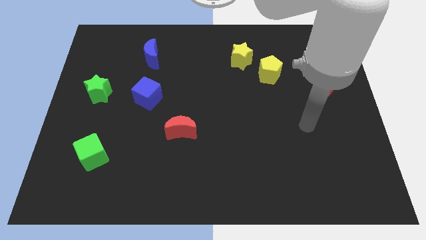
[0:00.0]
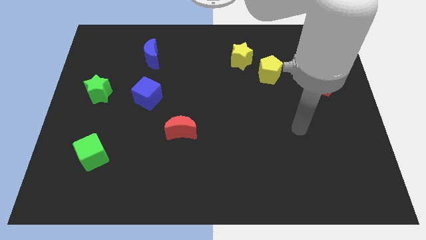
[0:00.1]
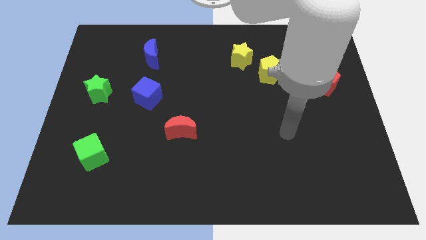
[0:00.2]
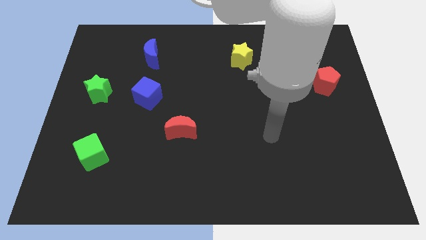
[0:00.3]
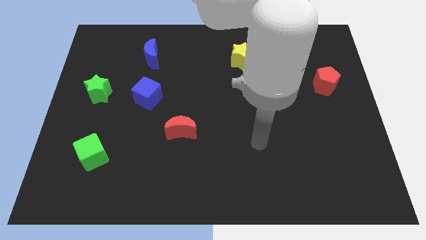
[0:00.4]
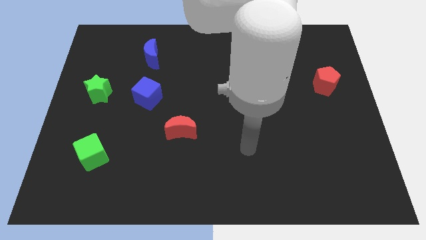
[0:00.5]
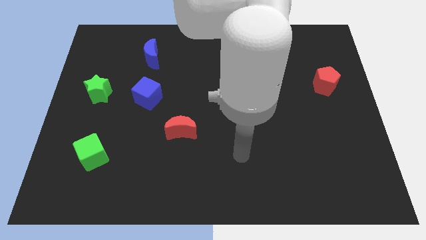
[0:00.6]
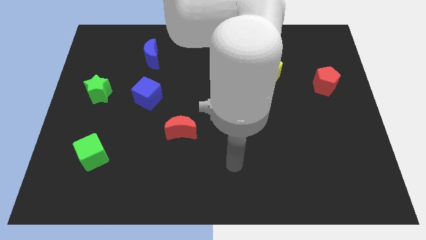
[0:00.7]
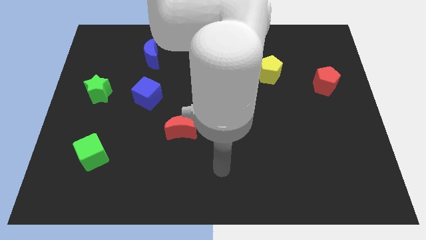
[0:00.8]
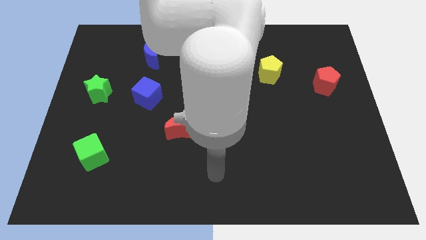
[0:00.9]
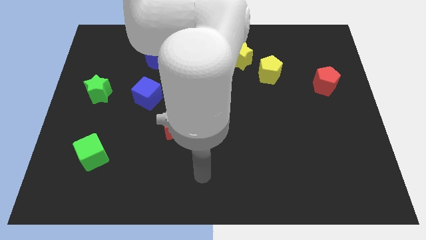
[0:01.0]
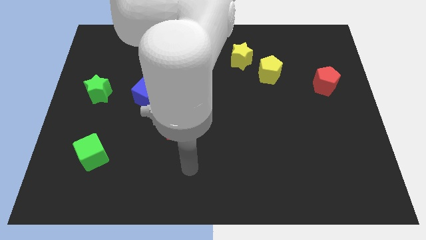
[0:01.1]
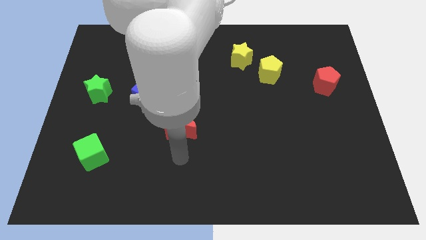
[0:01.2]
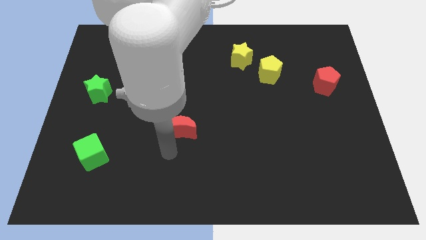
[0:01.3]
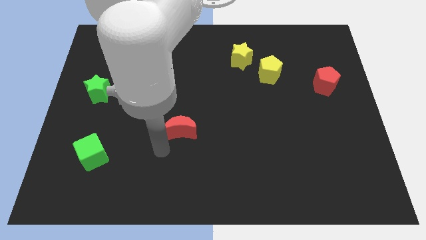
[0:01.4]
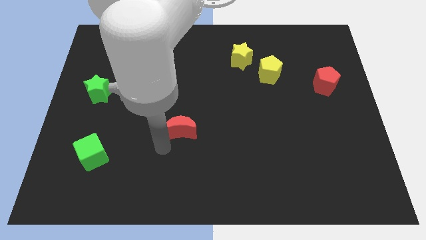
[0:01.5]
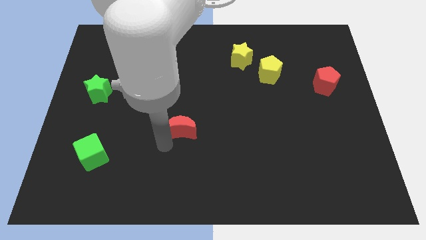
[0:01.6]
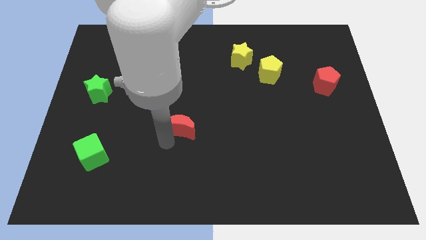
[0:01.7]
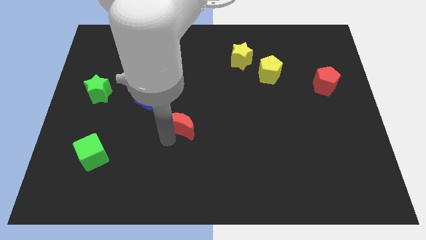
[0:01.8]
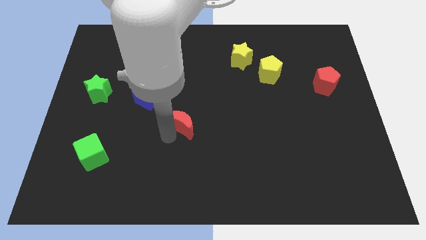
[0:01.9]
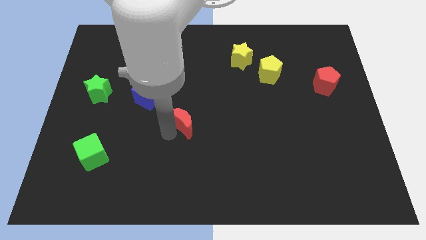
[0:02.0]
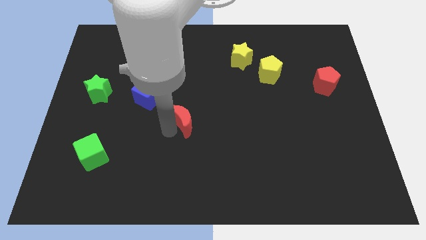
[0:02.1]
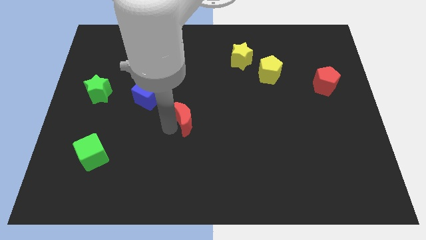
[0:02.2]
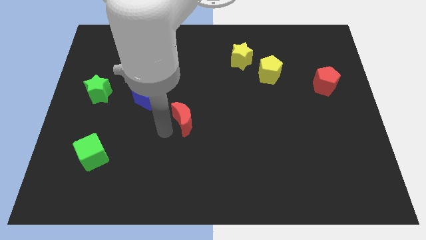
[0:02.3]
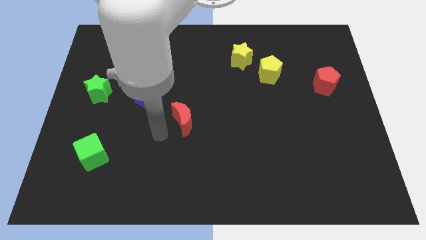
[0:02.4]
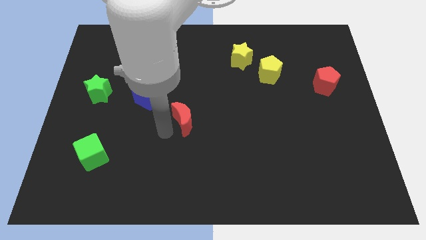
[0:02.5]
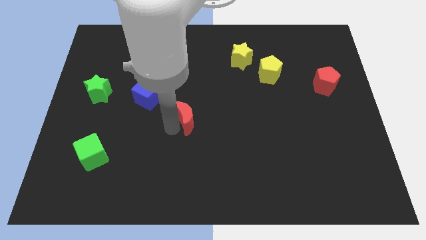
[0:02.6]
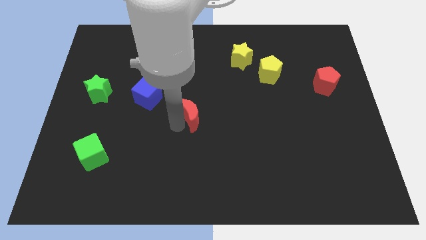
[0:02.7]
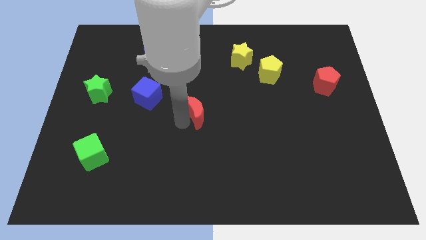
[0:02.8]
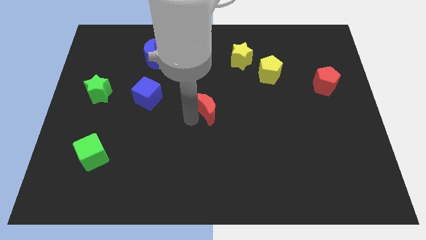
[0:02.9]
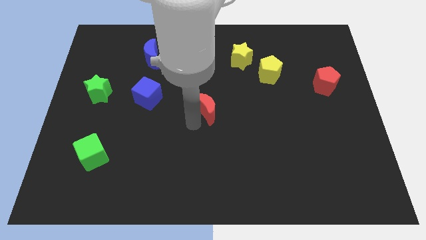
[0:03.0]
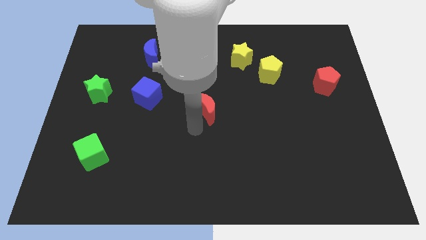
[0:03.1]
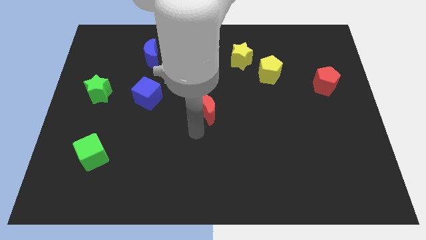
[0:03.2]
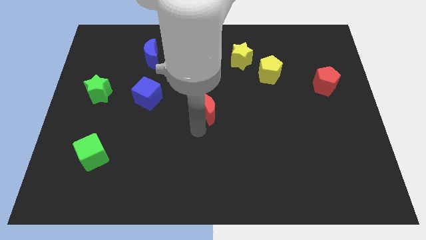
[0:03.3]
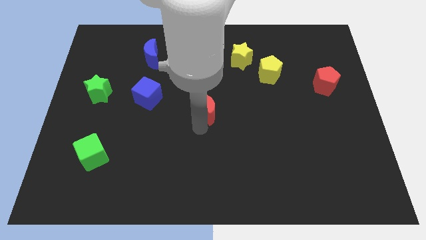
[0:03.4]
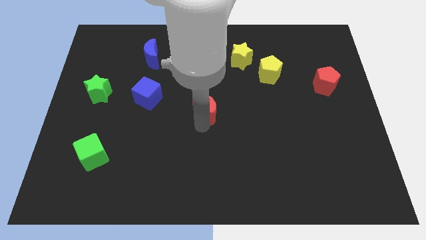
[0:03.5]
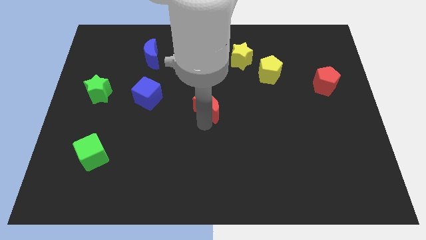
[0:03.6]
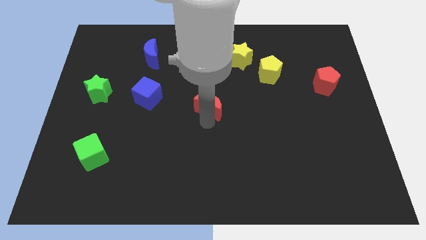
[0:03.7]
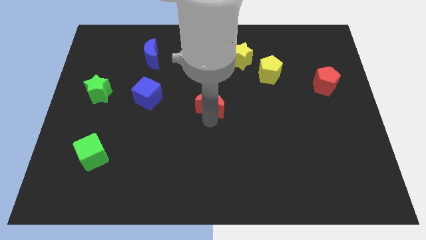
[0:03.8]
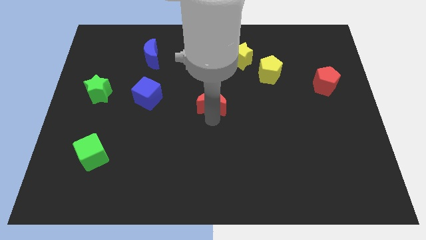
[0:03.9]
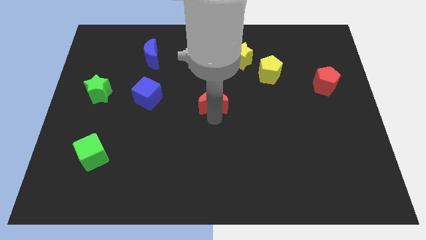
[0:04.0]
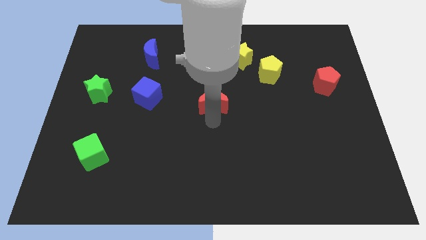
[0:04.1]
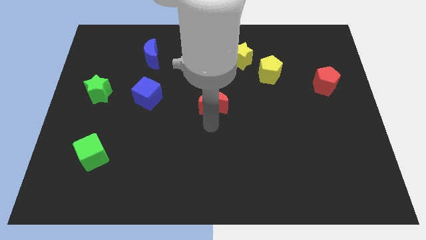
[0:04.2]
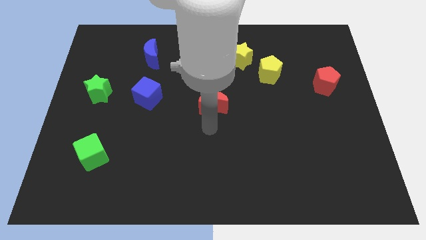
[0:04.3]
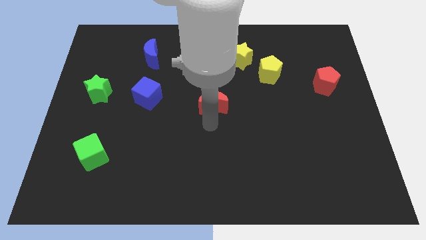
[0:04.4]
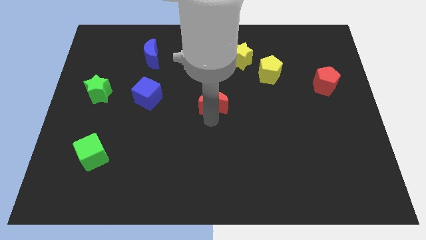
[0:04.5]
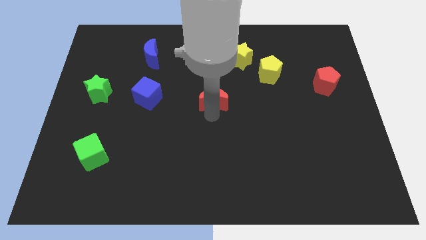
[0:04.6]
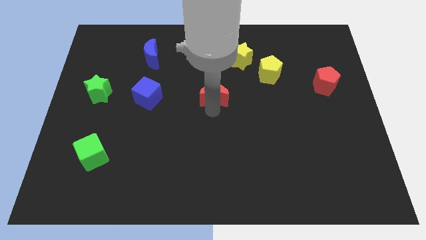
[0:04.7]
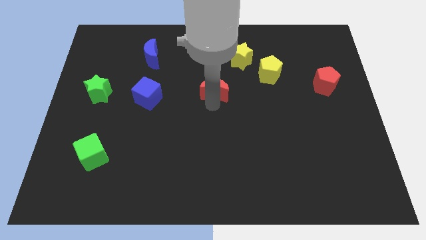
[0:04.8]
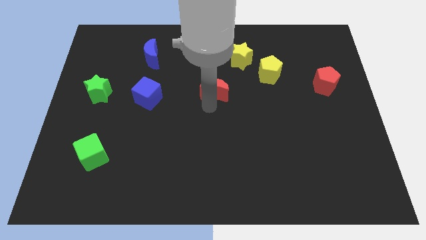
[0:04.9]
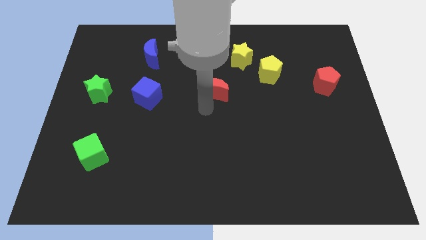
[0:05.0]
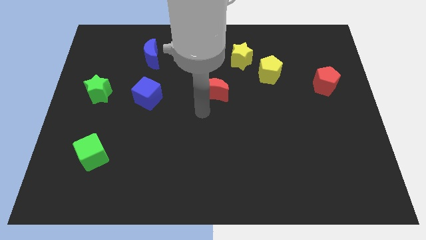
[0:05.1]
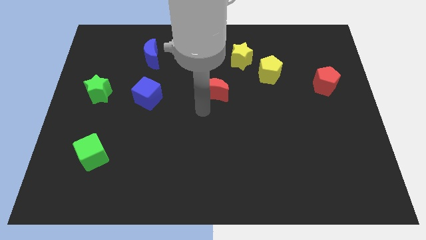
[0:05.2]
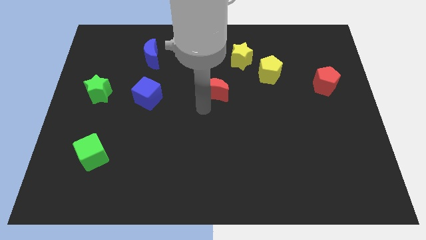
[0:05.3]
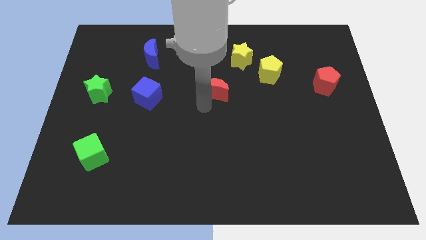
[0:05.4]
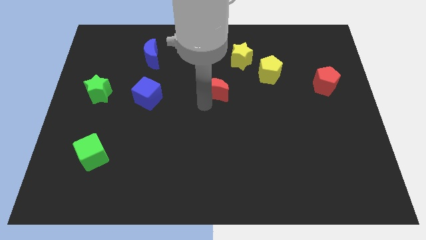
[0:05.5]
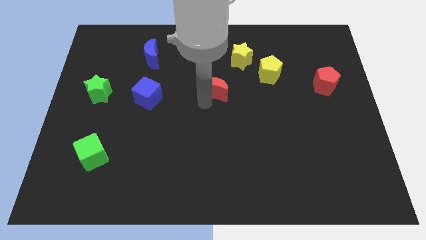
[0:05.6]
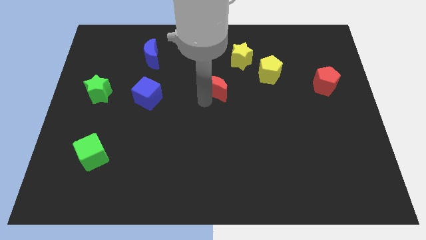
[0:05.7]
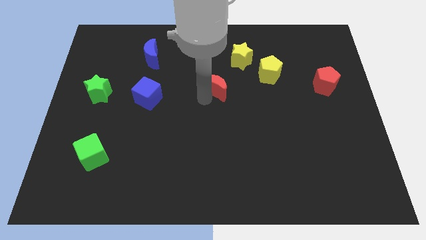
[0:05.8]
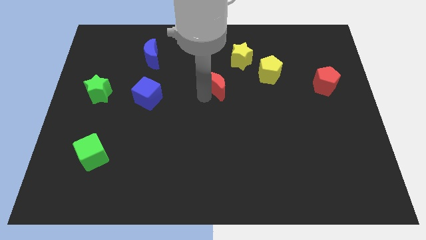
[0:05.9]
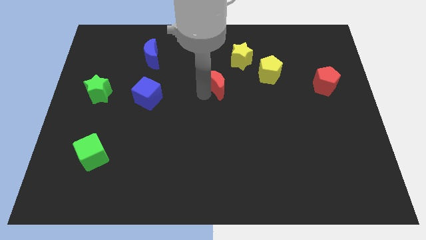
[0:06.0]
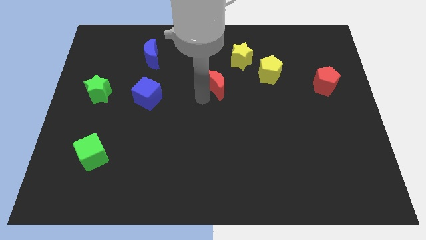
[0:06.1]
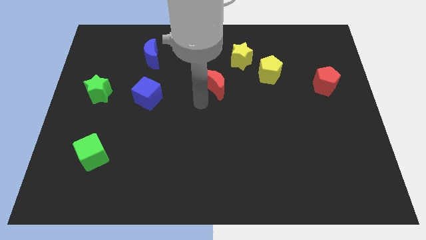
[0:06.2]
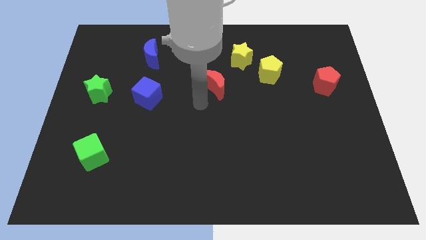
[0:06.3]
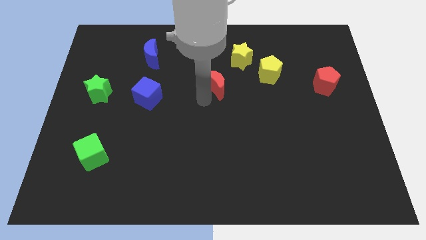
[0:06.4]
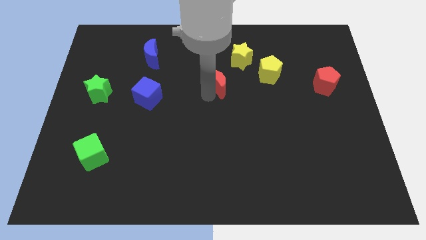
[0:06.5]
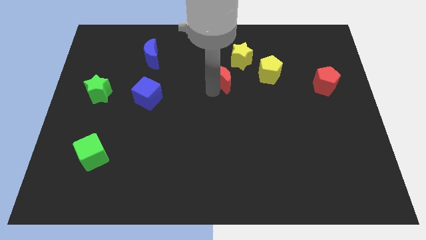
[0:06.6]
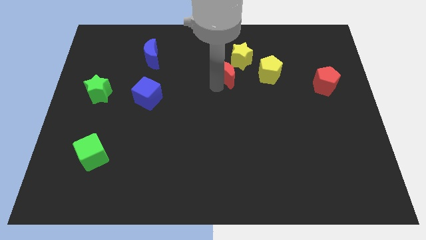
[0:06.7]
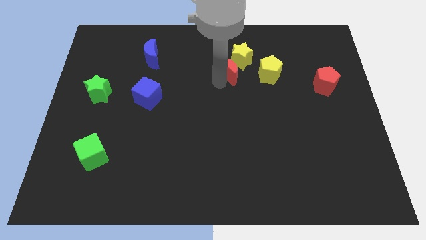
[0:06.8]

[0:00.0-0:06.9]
slide the red moon to the yellow star

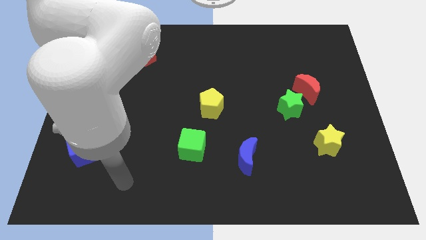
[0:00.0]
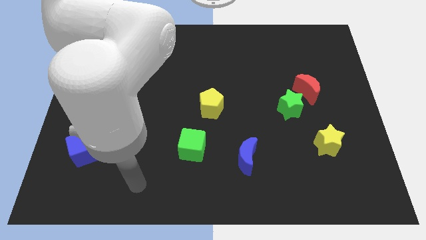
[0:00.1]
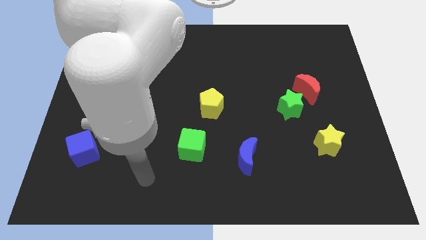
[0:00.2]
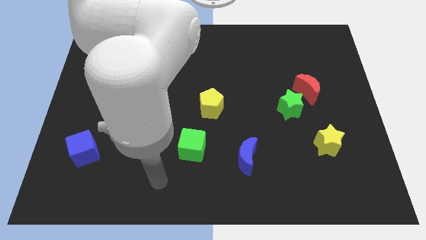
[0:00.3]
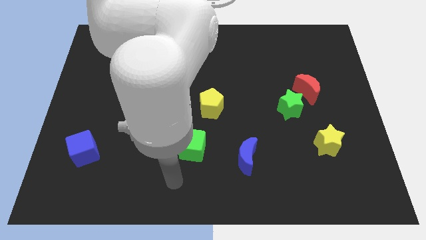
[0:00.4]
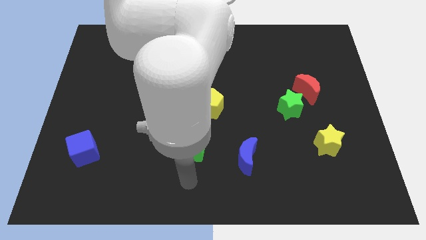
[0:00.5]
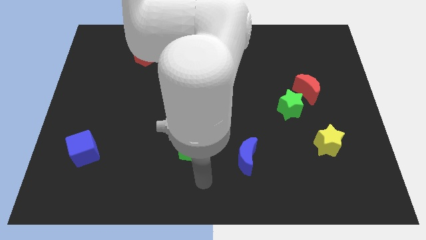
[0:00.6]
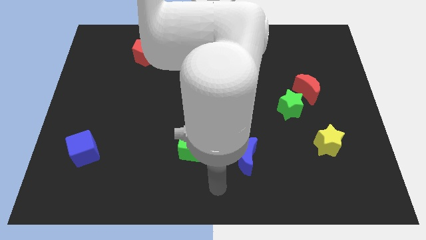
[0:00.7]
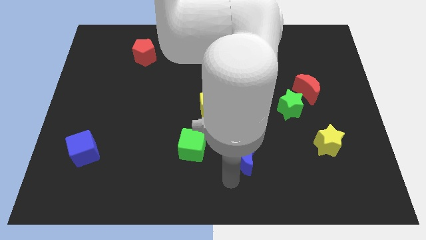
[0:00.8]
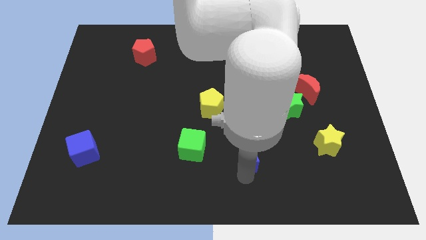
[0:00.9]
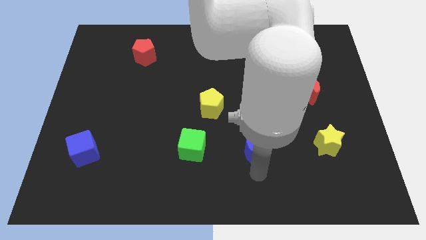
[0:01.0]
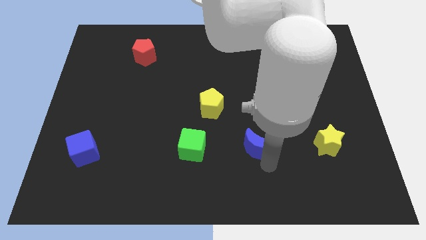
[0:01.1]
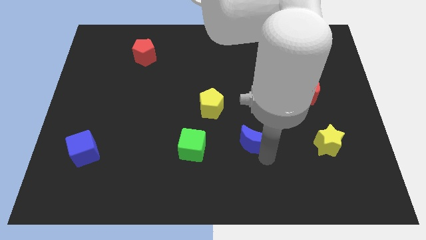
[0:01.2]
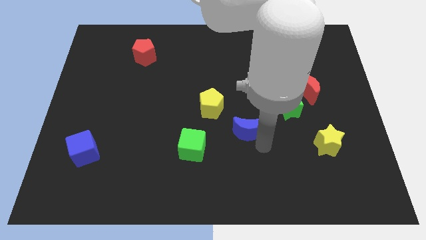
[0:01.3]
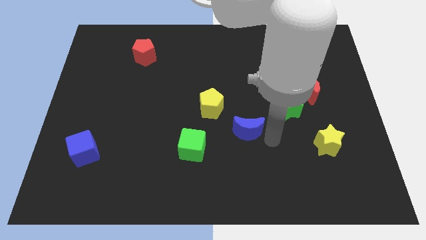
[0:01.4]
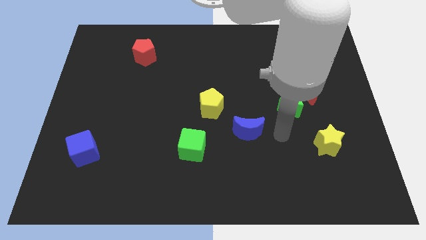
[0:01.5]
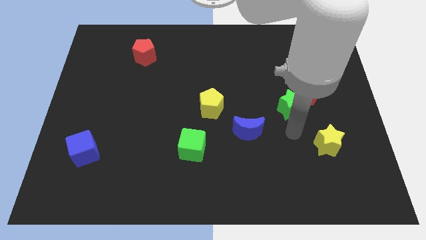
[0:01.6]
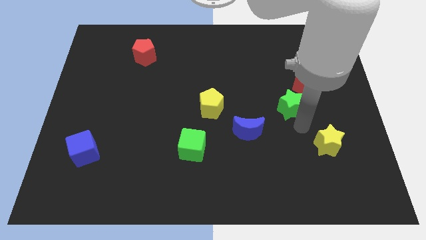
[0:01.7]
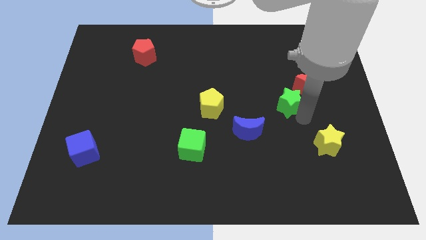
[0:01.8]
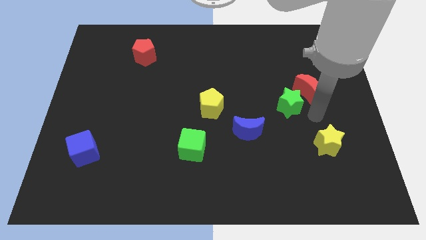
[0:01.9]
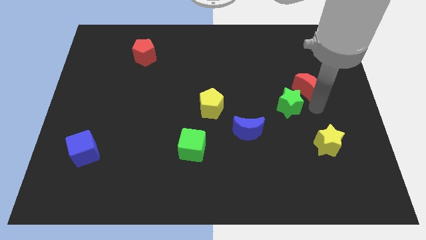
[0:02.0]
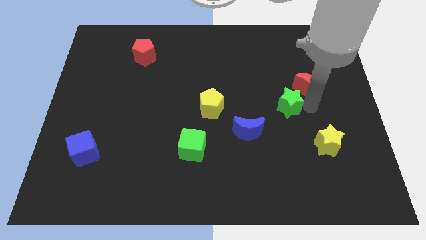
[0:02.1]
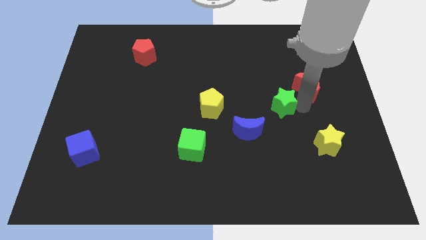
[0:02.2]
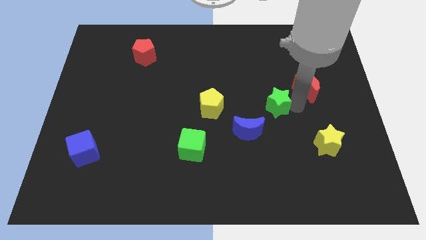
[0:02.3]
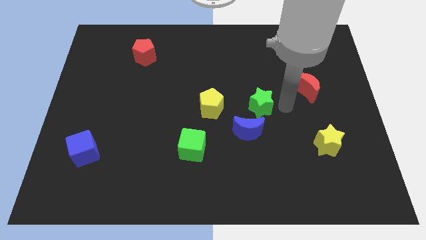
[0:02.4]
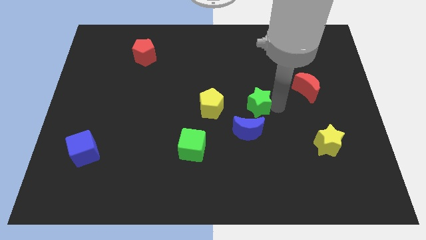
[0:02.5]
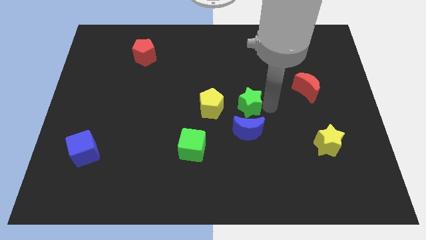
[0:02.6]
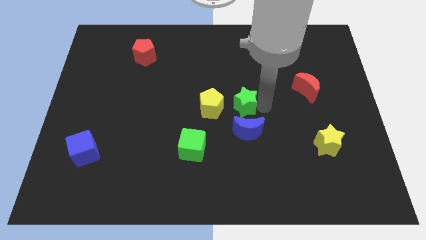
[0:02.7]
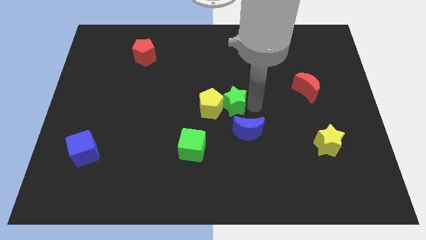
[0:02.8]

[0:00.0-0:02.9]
move the green star next to the yellow pentagon
